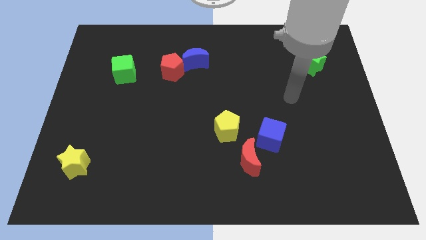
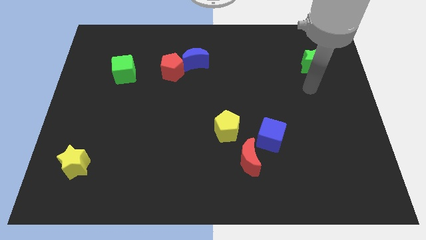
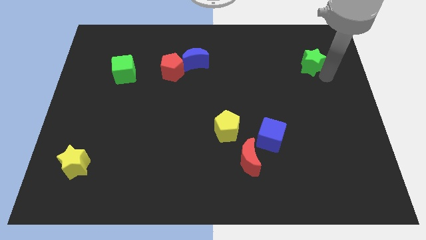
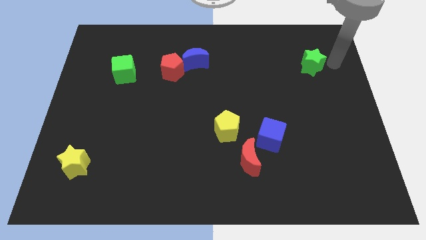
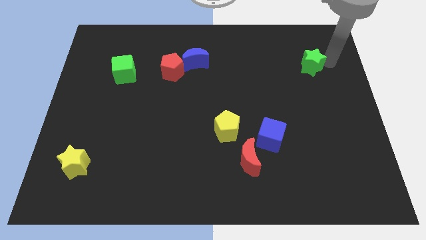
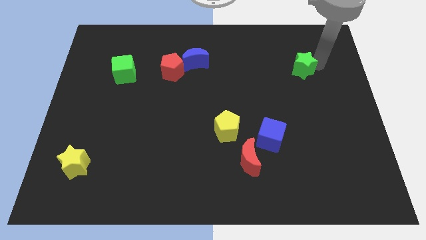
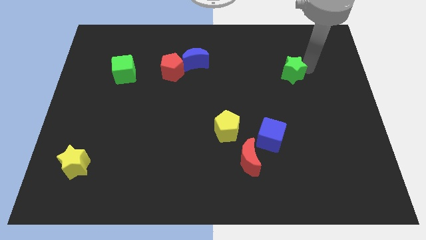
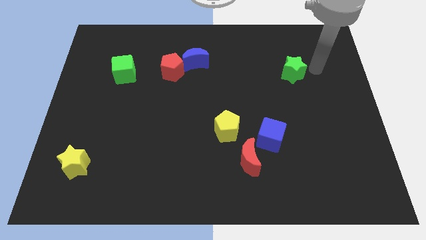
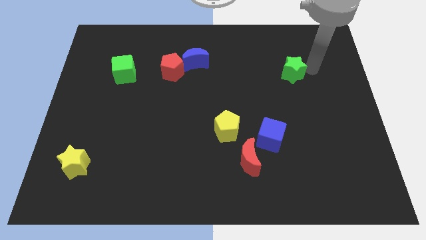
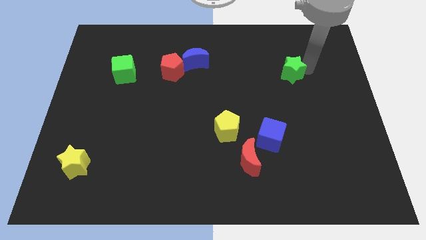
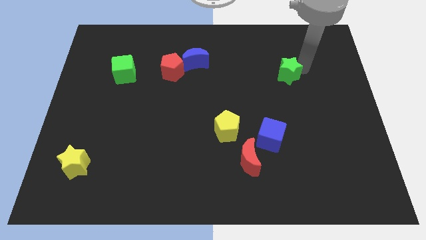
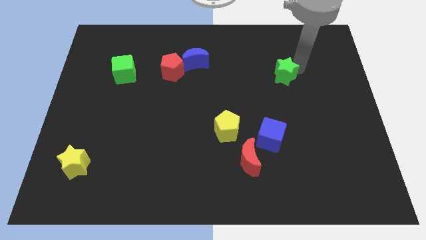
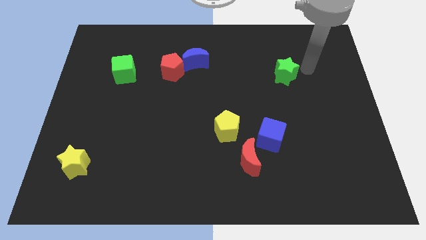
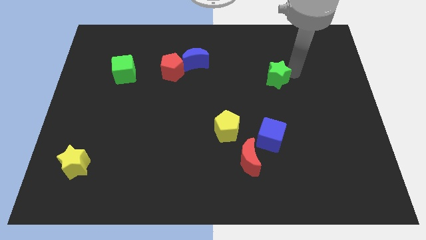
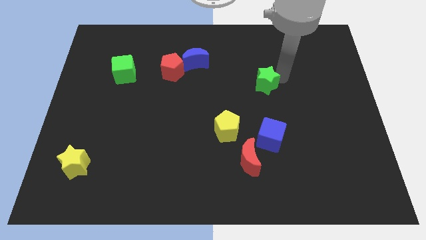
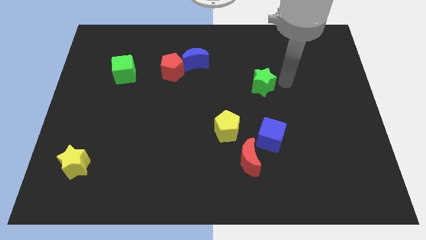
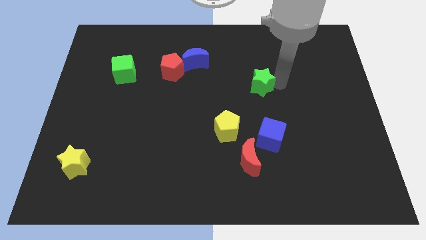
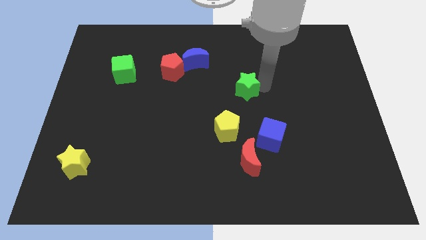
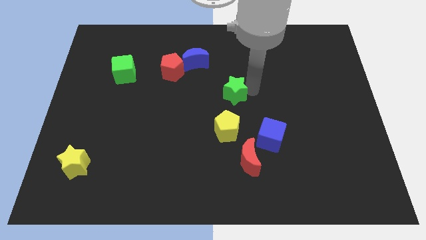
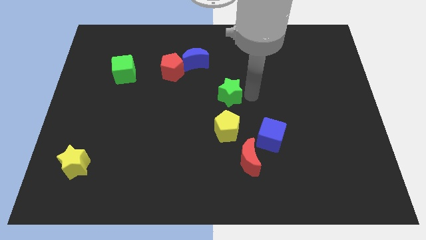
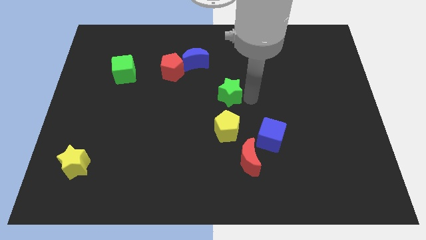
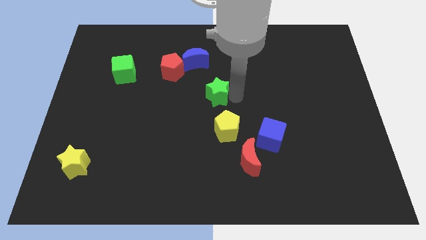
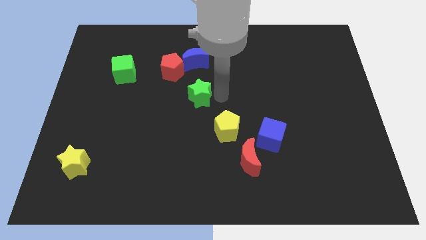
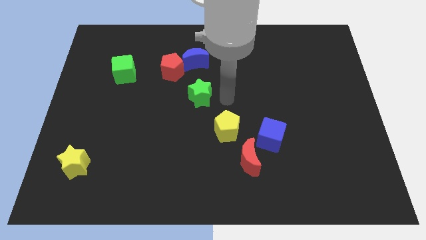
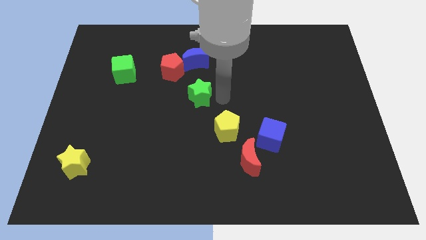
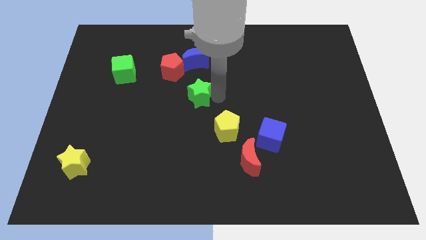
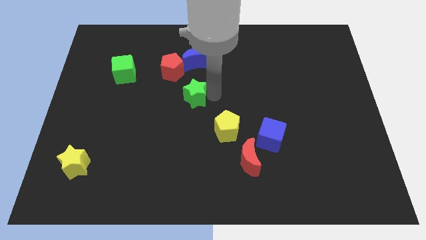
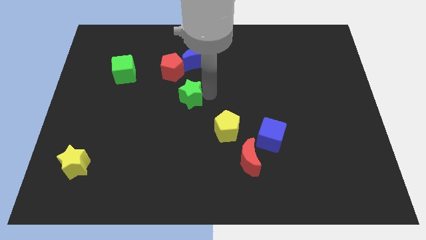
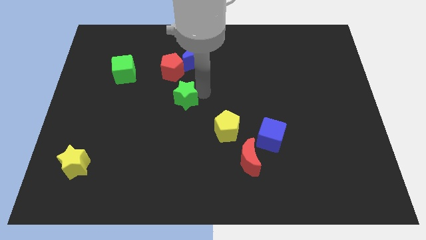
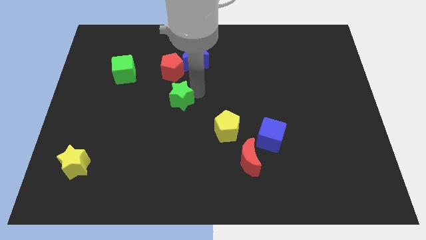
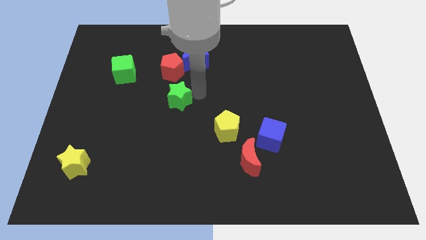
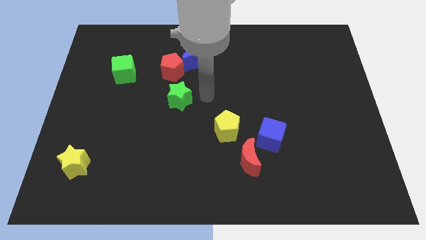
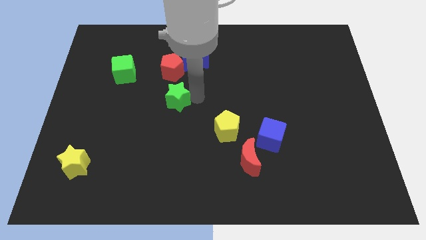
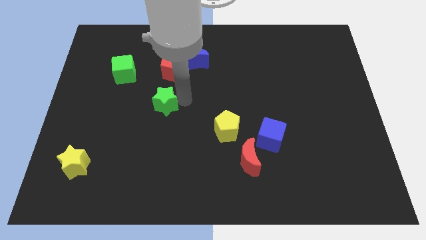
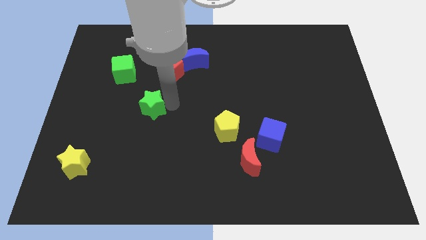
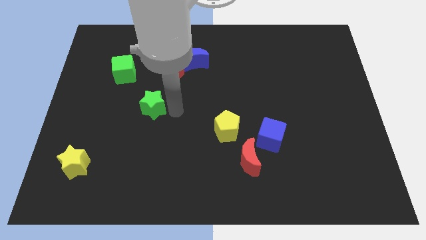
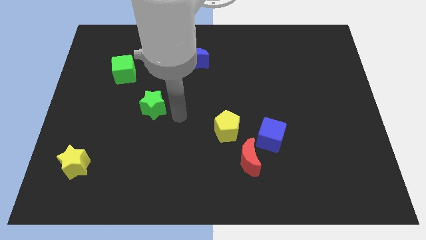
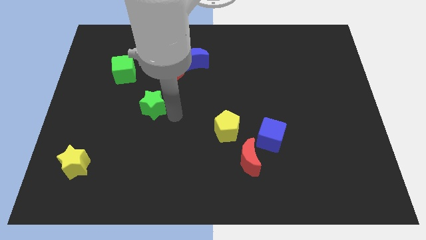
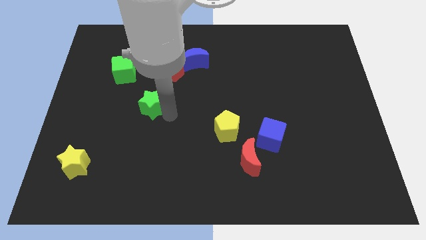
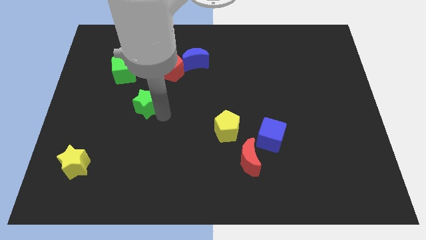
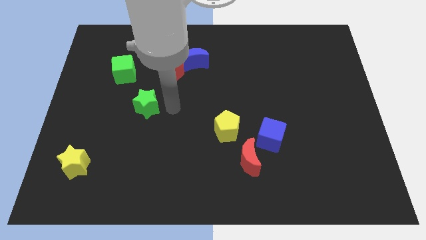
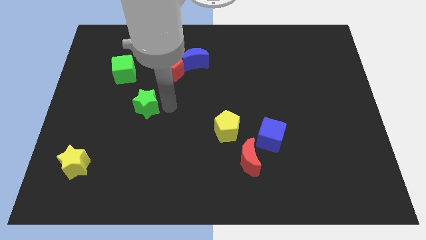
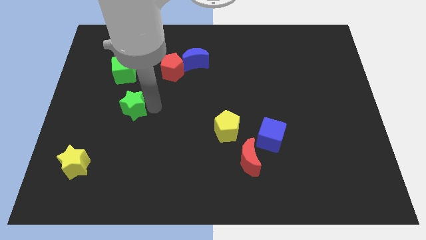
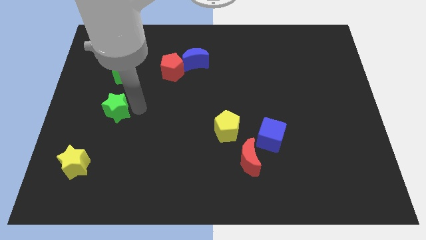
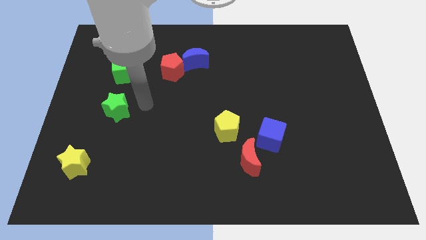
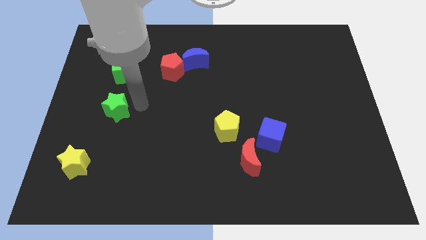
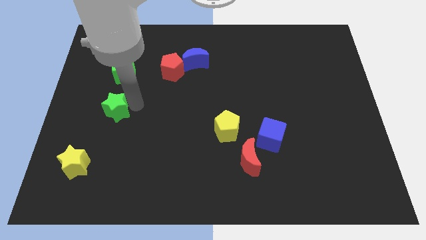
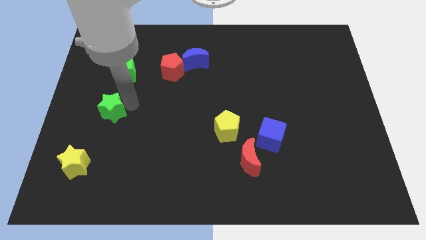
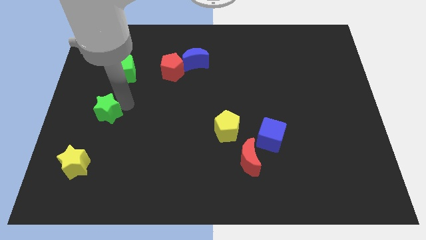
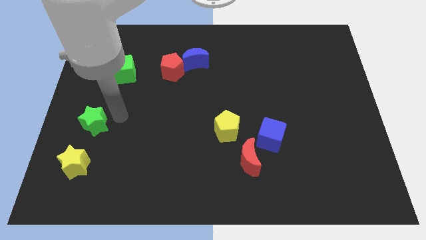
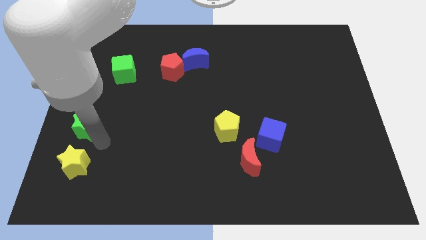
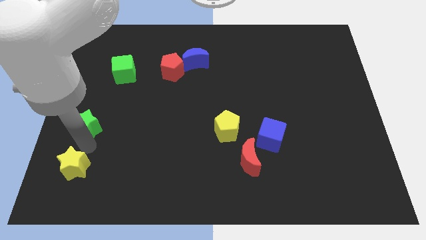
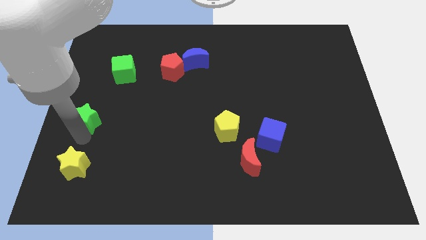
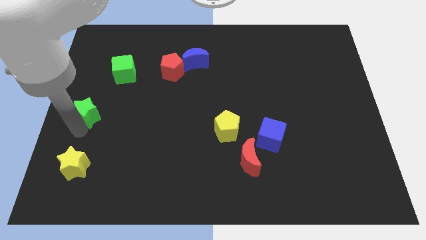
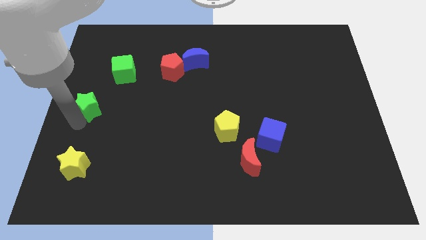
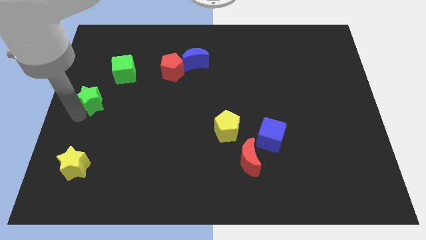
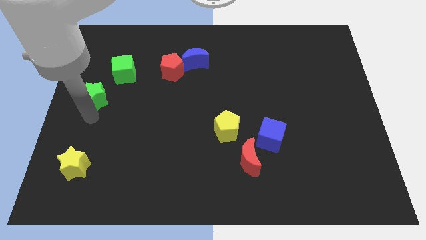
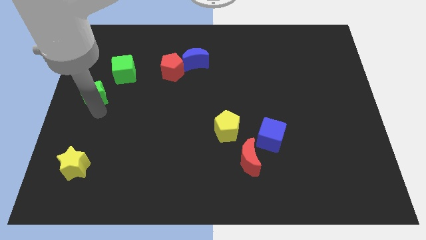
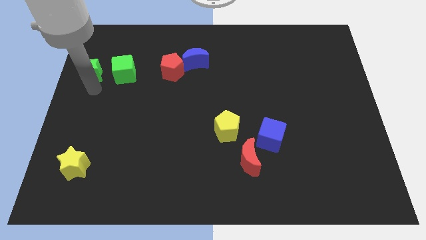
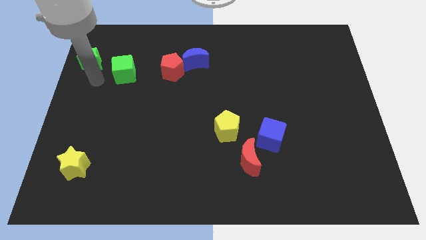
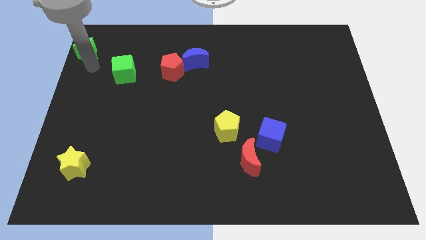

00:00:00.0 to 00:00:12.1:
slide the green star to the top left of the board
